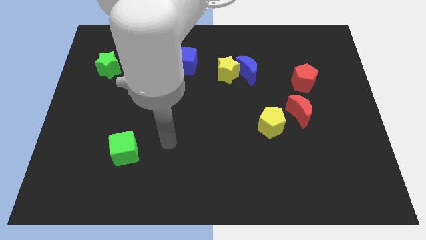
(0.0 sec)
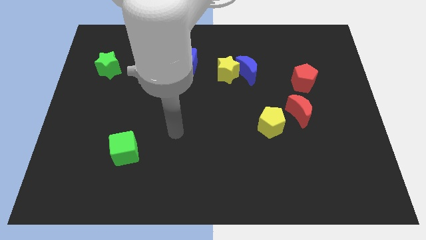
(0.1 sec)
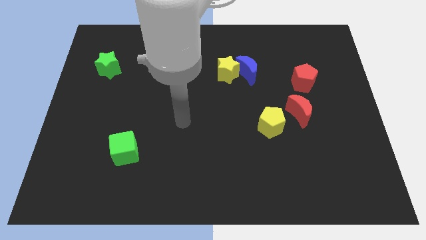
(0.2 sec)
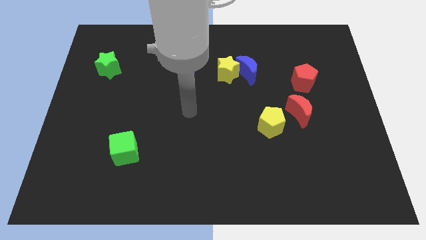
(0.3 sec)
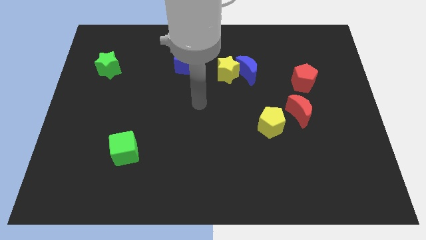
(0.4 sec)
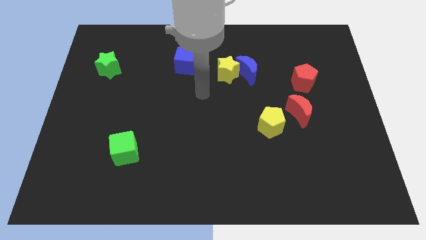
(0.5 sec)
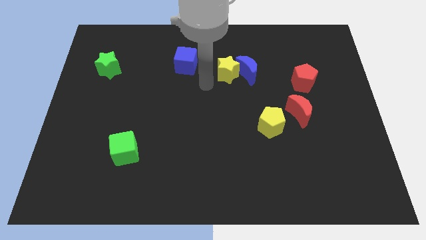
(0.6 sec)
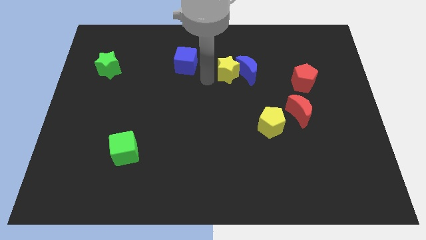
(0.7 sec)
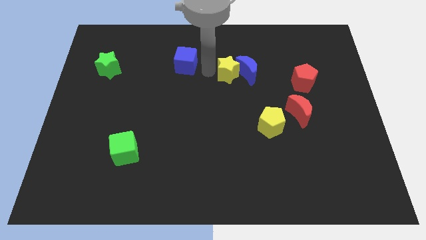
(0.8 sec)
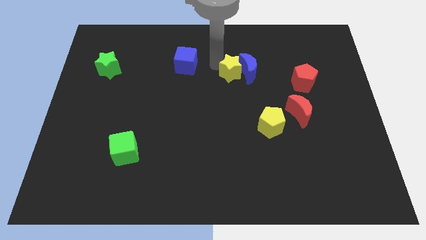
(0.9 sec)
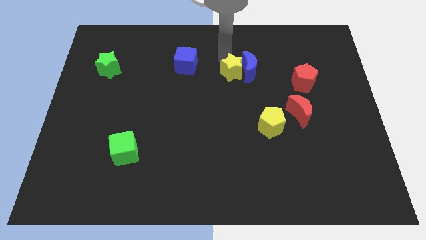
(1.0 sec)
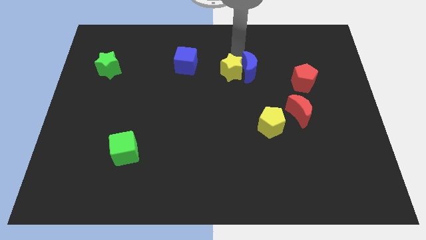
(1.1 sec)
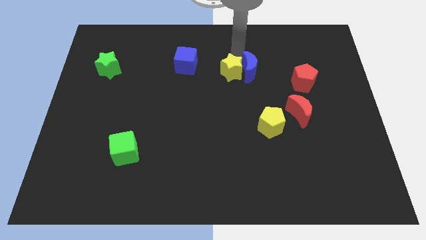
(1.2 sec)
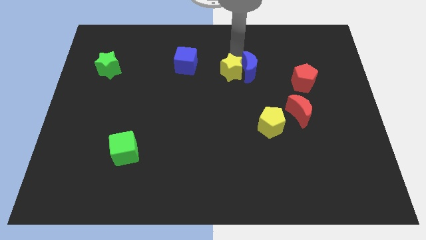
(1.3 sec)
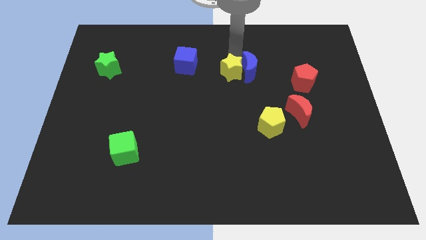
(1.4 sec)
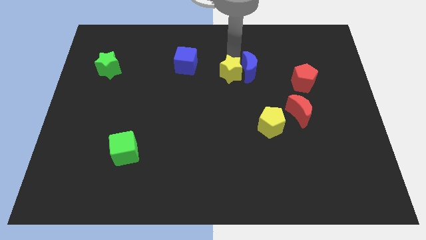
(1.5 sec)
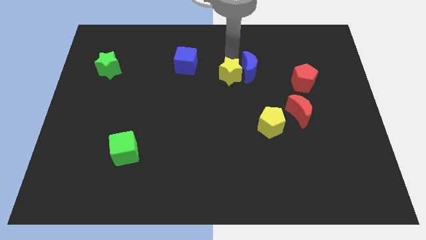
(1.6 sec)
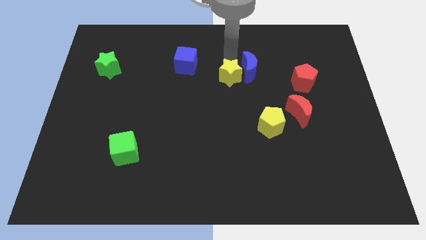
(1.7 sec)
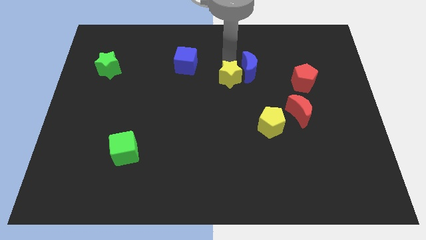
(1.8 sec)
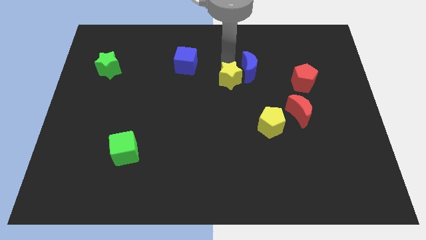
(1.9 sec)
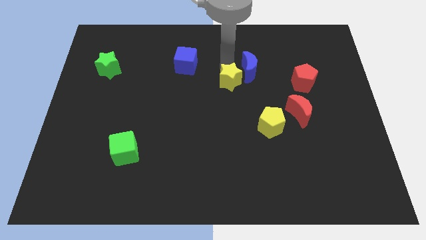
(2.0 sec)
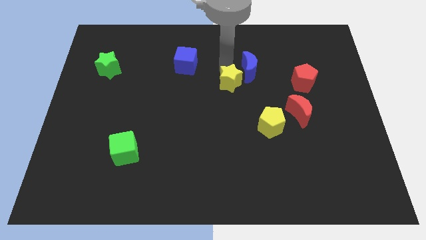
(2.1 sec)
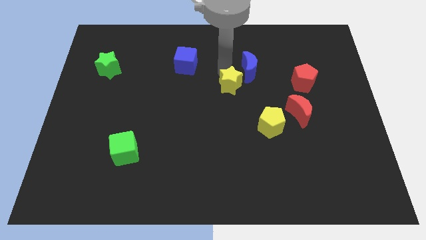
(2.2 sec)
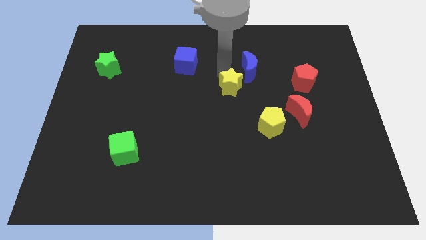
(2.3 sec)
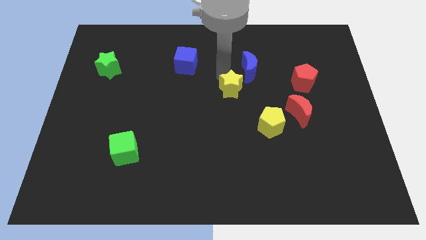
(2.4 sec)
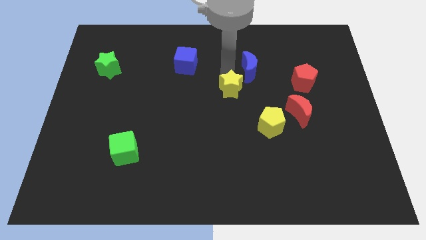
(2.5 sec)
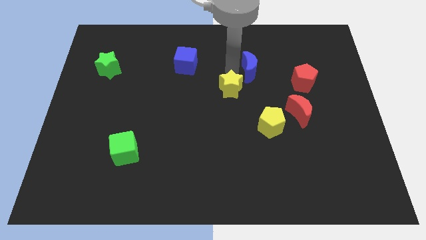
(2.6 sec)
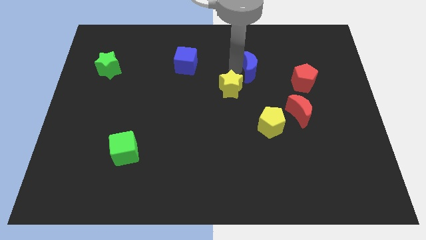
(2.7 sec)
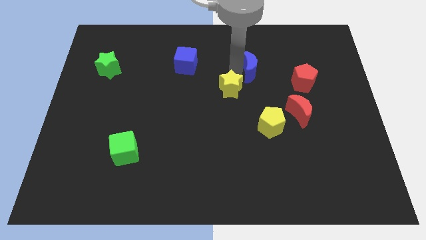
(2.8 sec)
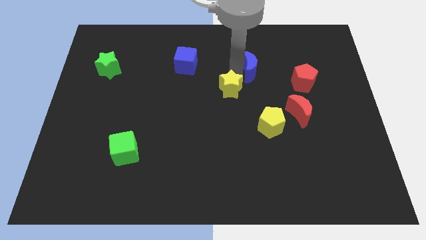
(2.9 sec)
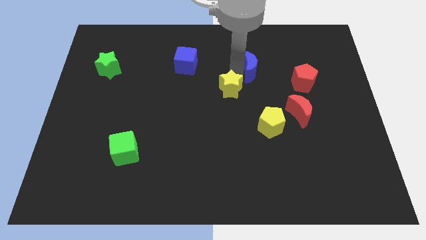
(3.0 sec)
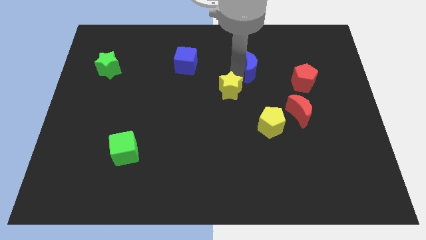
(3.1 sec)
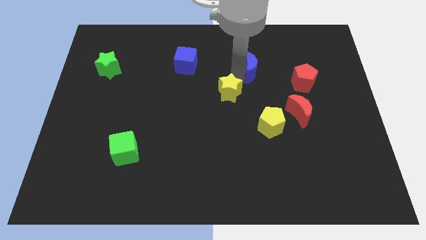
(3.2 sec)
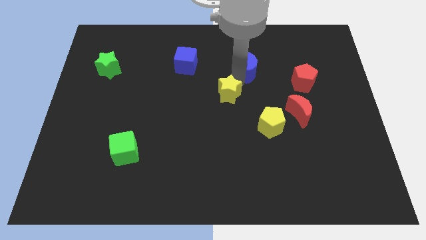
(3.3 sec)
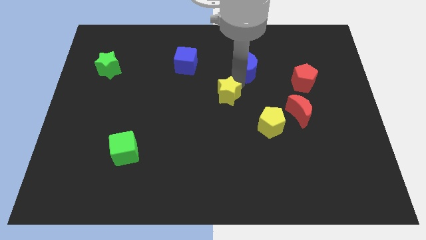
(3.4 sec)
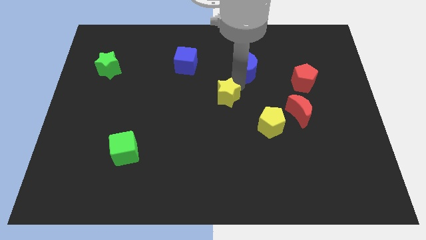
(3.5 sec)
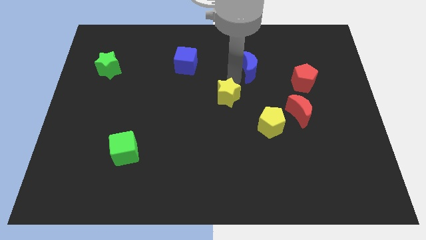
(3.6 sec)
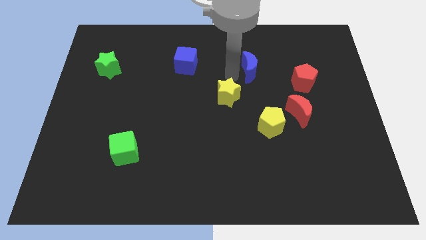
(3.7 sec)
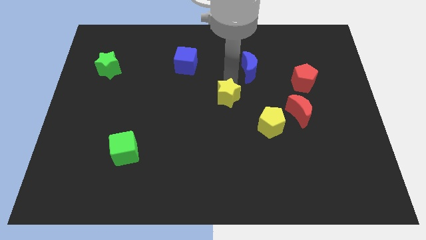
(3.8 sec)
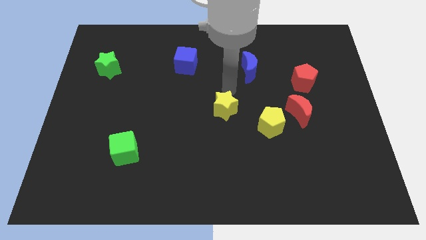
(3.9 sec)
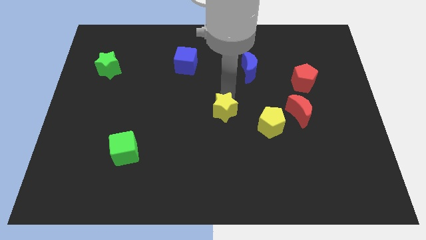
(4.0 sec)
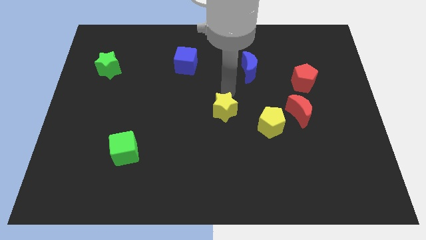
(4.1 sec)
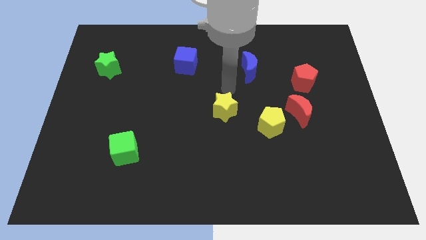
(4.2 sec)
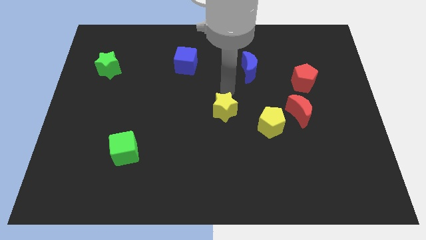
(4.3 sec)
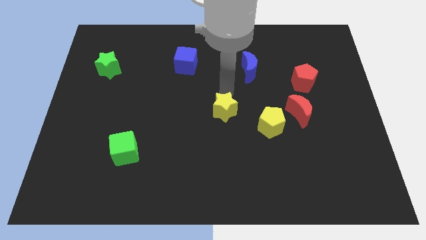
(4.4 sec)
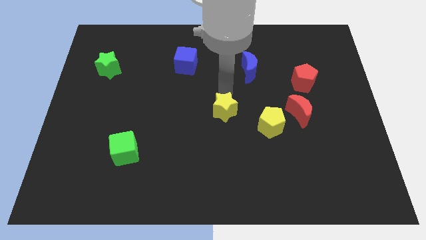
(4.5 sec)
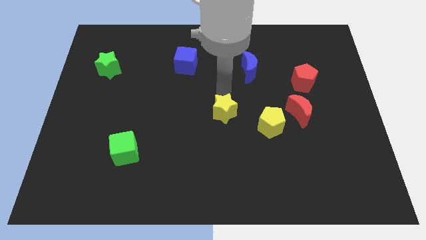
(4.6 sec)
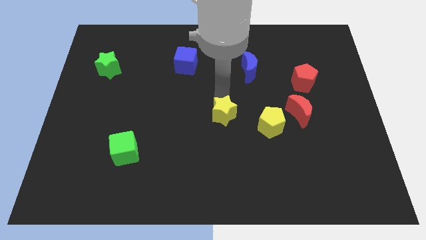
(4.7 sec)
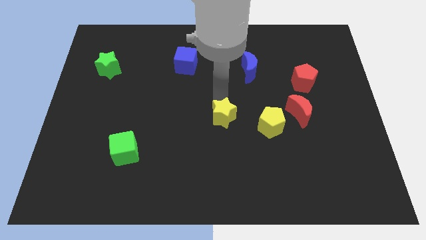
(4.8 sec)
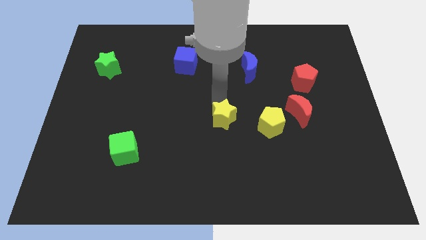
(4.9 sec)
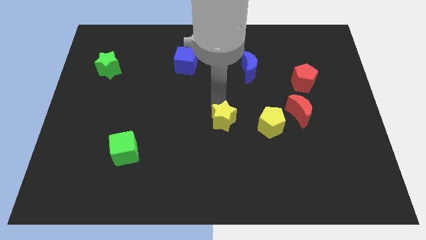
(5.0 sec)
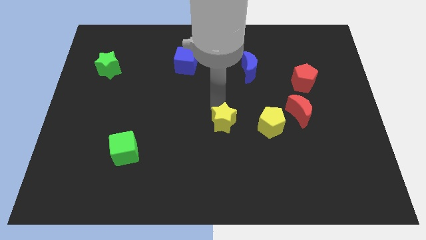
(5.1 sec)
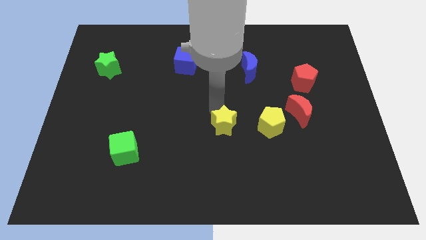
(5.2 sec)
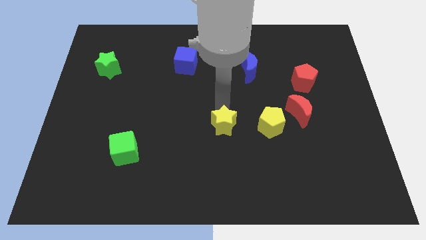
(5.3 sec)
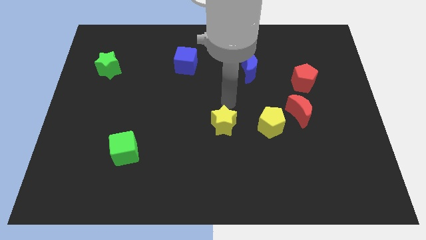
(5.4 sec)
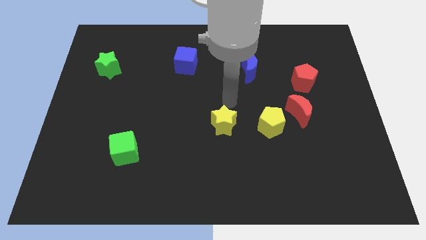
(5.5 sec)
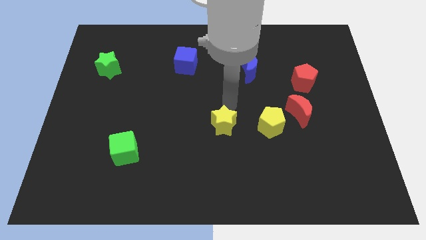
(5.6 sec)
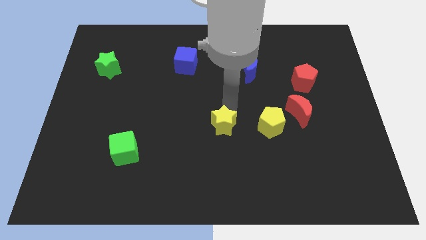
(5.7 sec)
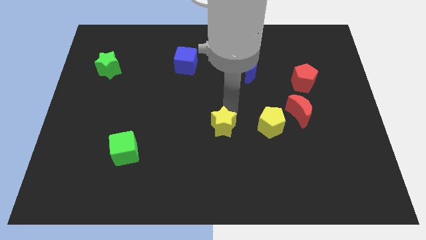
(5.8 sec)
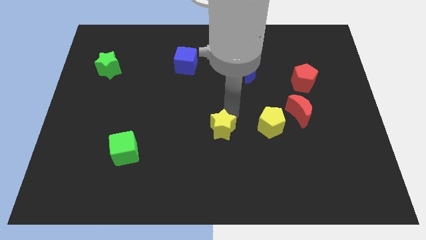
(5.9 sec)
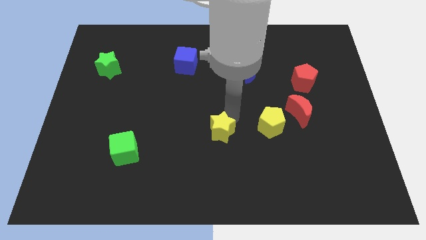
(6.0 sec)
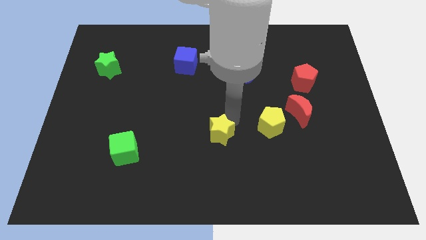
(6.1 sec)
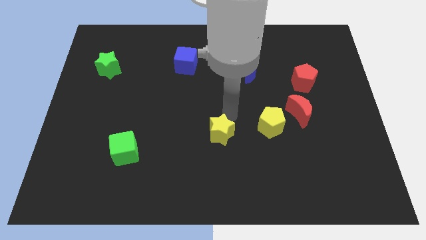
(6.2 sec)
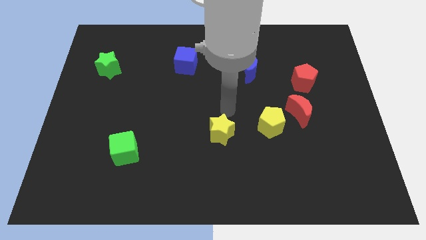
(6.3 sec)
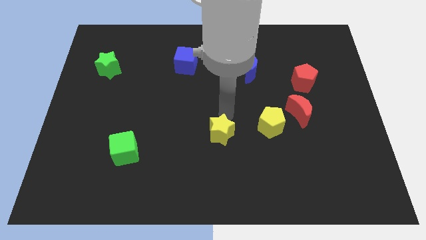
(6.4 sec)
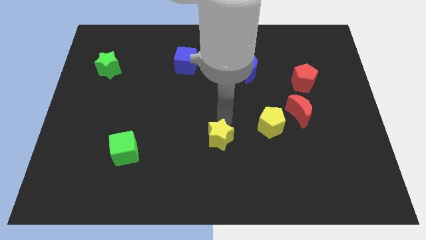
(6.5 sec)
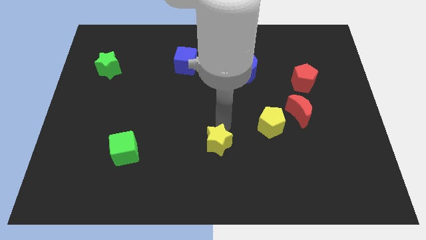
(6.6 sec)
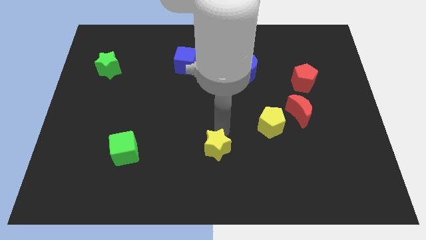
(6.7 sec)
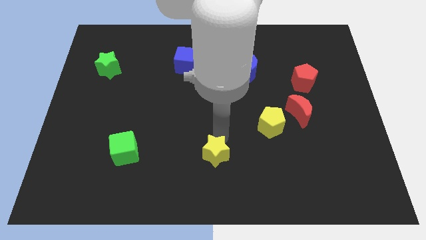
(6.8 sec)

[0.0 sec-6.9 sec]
push the yellow star to the bottom side
